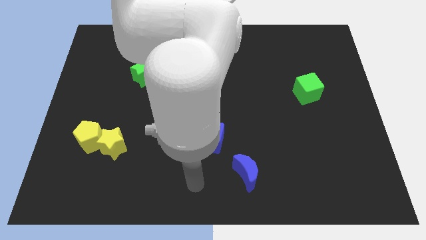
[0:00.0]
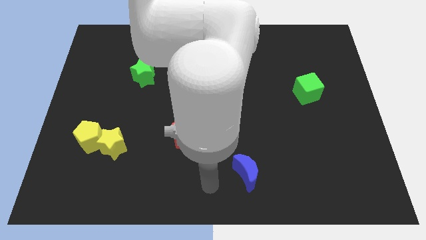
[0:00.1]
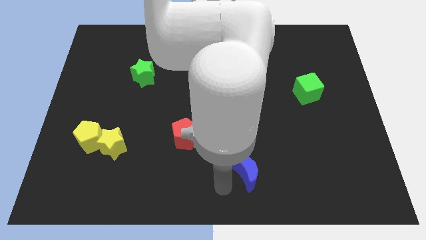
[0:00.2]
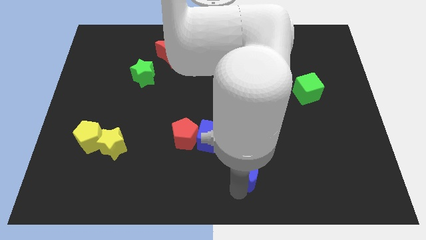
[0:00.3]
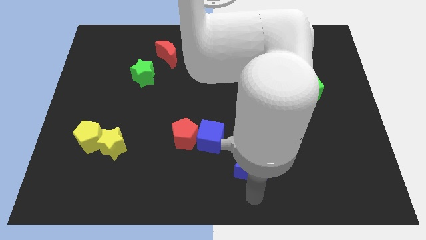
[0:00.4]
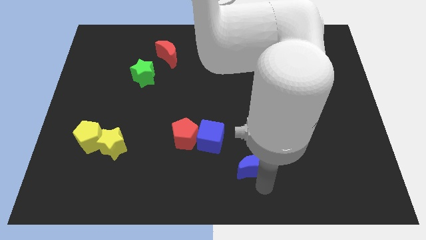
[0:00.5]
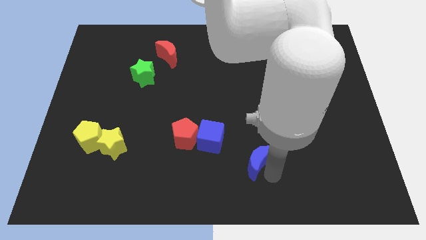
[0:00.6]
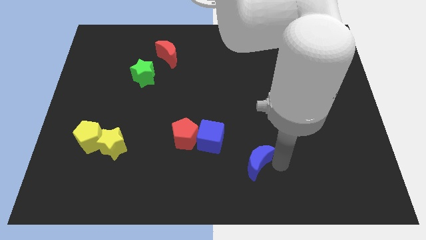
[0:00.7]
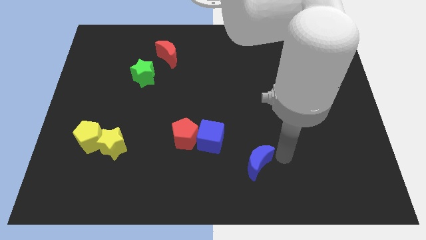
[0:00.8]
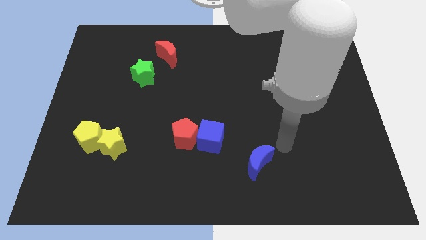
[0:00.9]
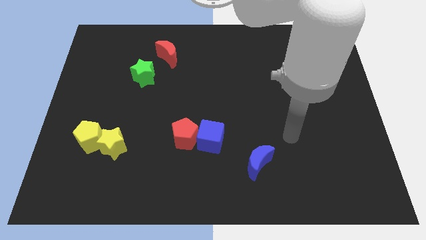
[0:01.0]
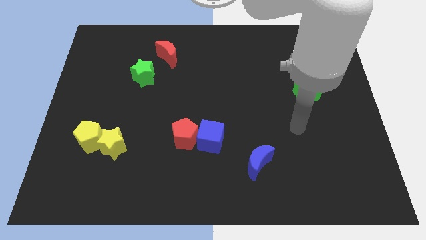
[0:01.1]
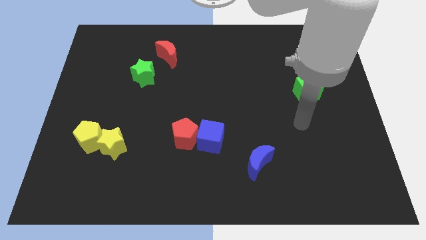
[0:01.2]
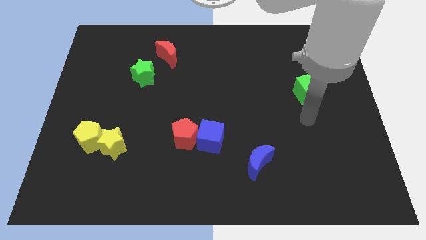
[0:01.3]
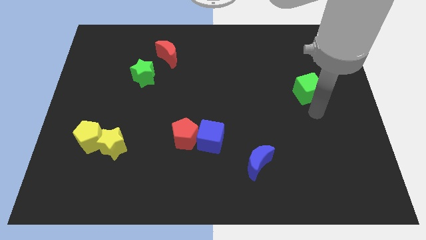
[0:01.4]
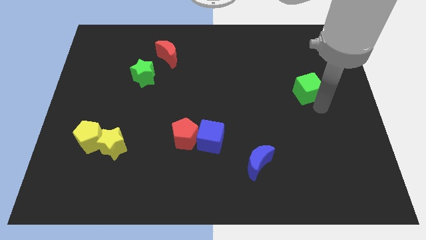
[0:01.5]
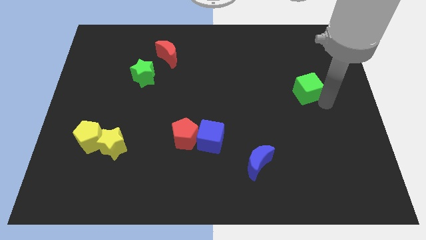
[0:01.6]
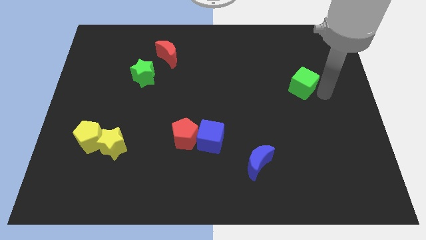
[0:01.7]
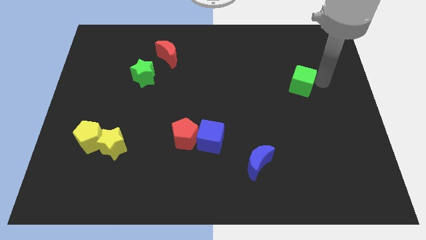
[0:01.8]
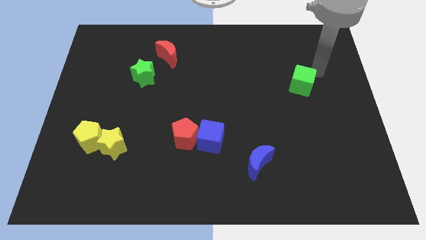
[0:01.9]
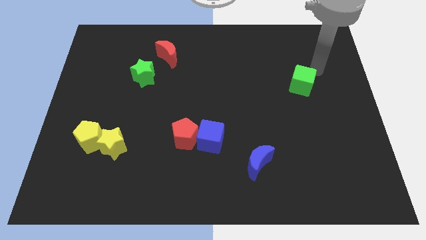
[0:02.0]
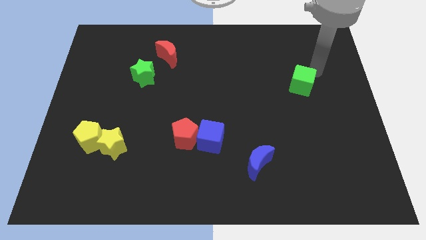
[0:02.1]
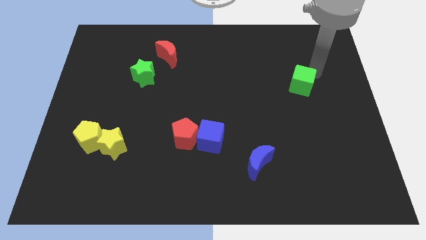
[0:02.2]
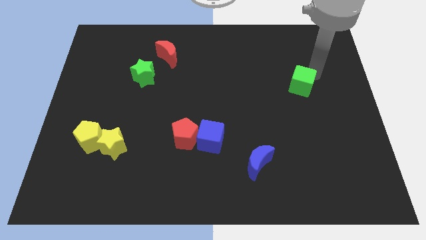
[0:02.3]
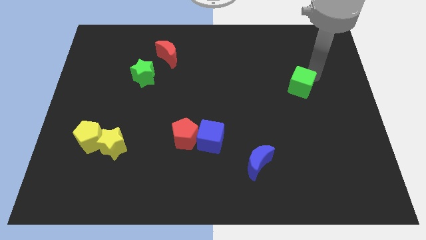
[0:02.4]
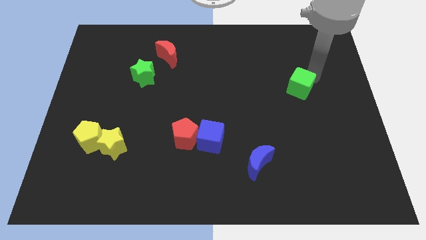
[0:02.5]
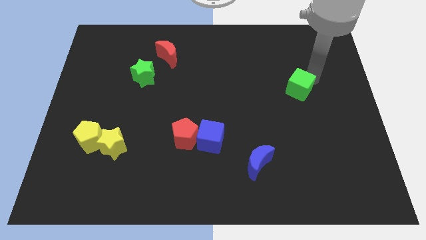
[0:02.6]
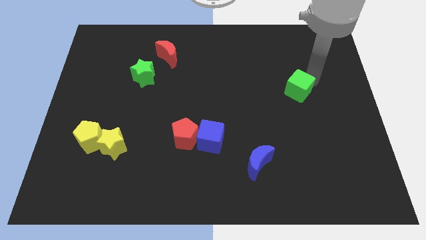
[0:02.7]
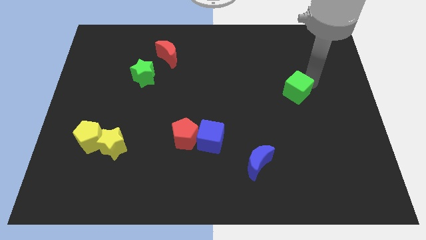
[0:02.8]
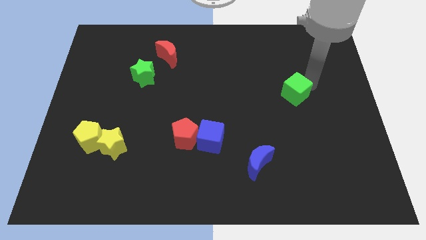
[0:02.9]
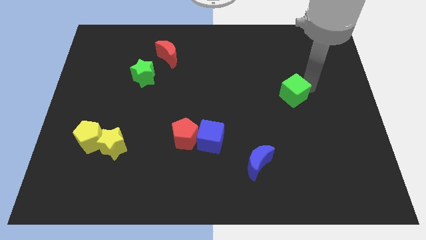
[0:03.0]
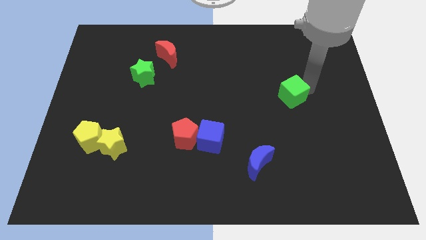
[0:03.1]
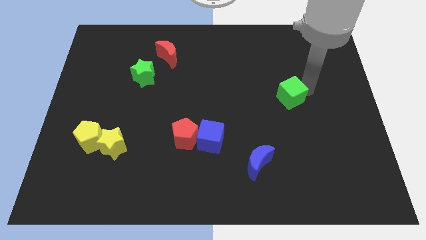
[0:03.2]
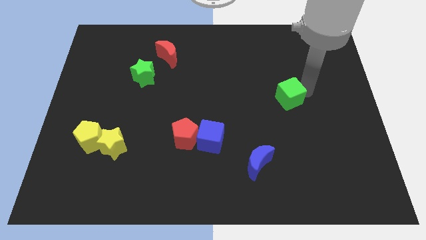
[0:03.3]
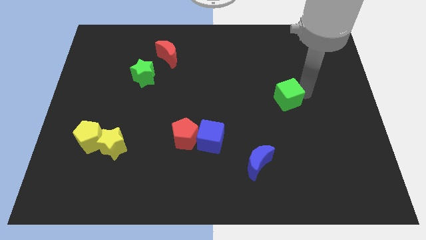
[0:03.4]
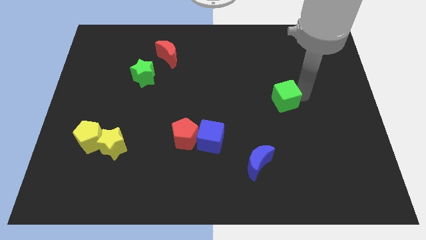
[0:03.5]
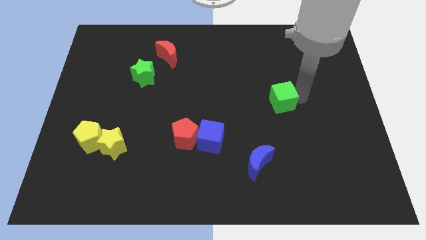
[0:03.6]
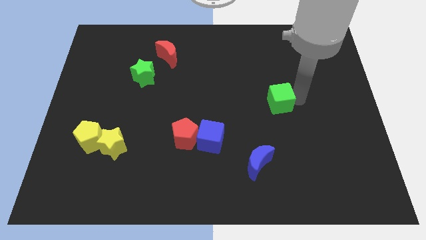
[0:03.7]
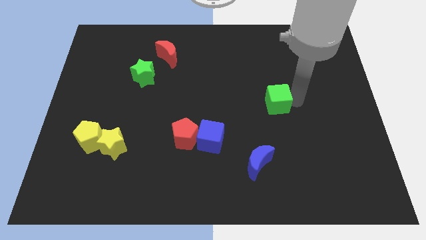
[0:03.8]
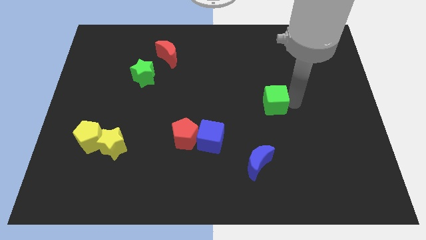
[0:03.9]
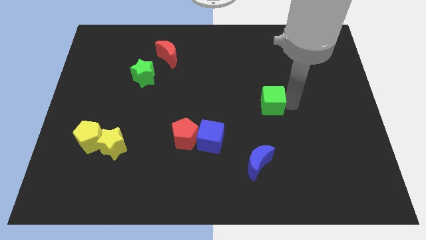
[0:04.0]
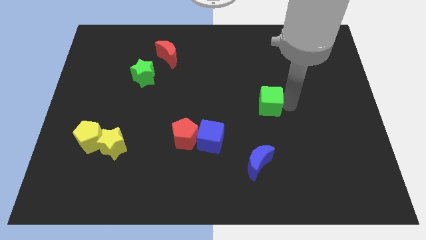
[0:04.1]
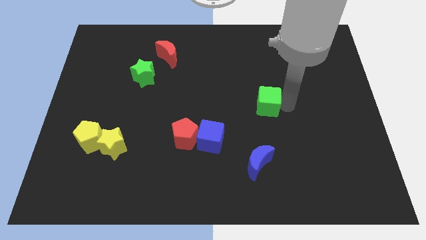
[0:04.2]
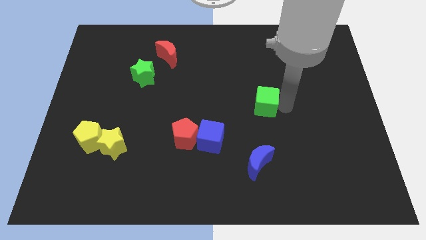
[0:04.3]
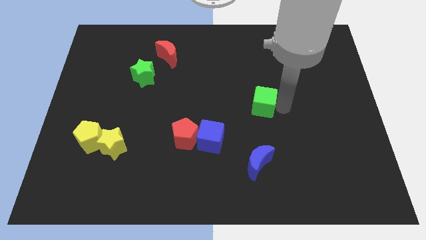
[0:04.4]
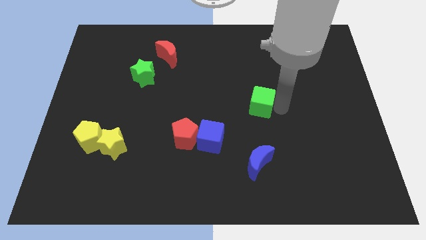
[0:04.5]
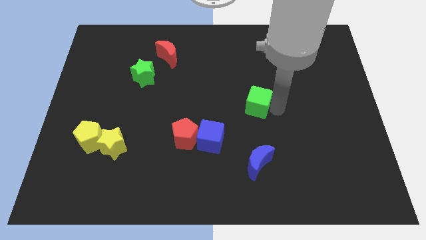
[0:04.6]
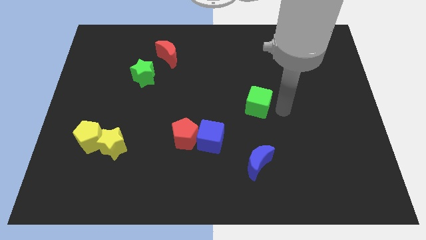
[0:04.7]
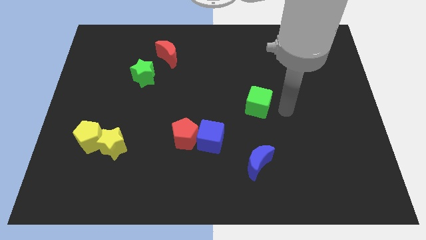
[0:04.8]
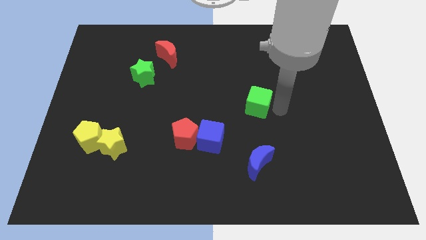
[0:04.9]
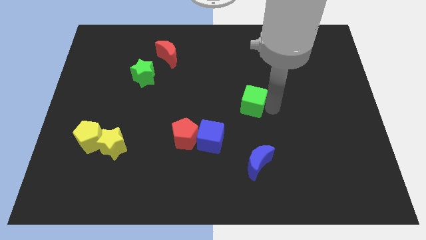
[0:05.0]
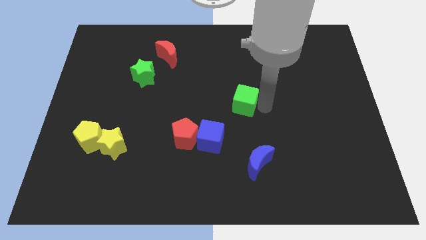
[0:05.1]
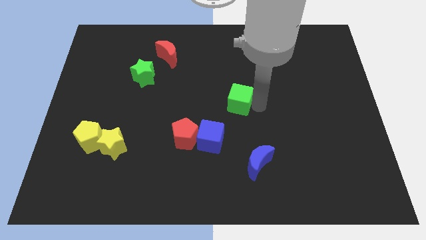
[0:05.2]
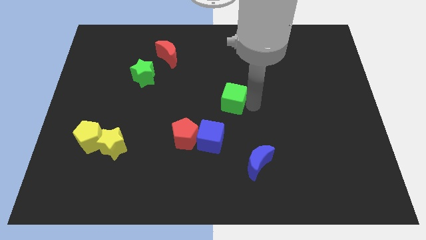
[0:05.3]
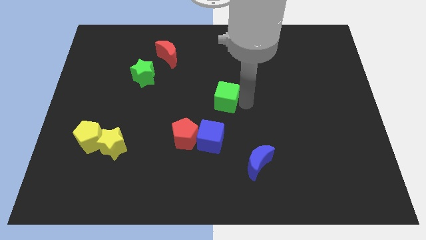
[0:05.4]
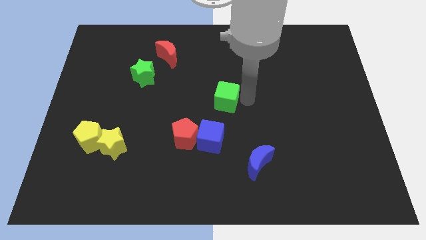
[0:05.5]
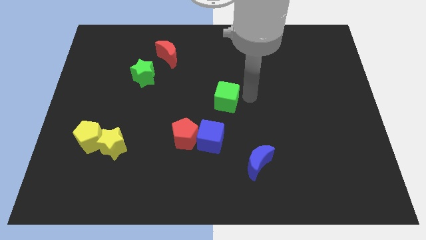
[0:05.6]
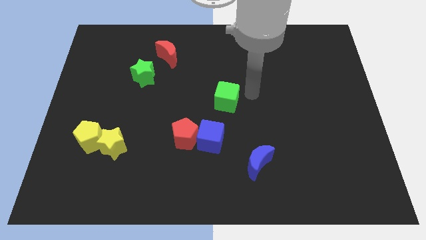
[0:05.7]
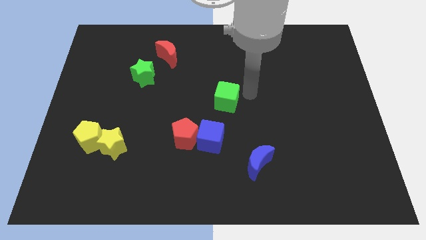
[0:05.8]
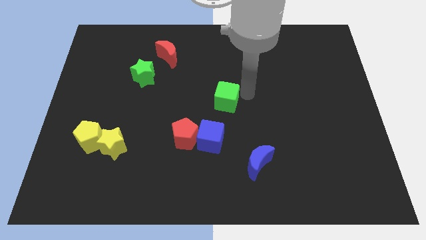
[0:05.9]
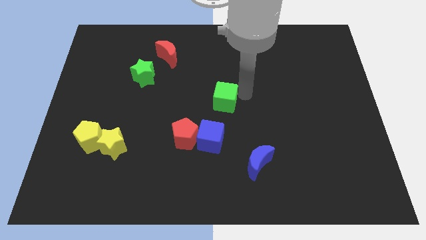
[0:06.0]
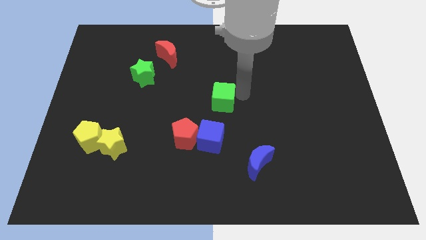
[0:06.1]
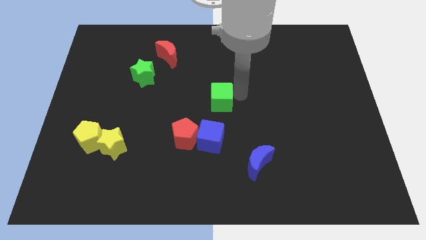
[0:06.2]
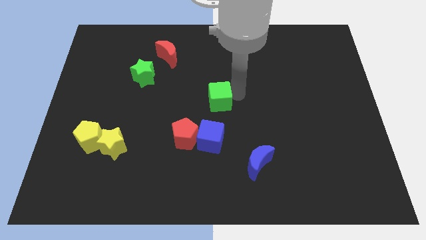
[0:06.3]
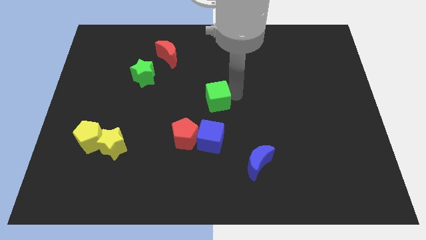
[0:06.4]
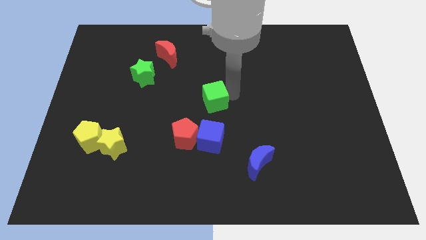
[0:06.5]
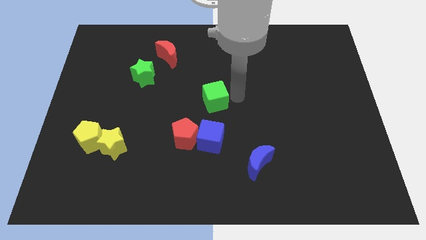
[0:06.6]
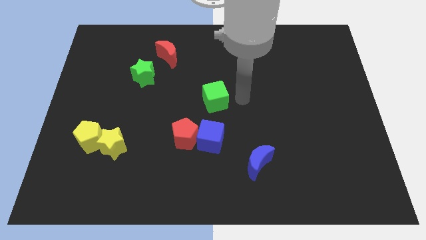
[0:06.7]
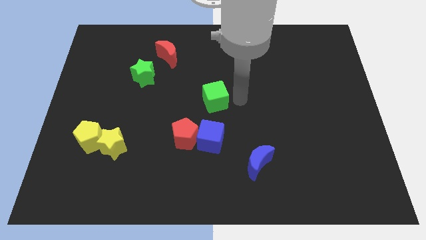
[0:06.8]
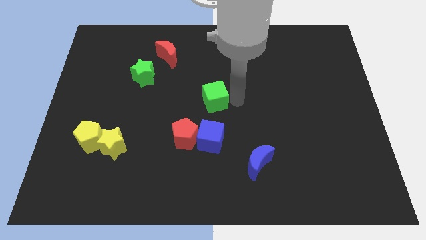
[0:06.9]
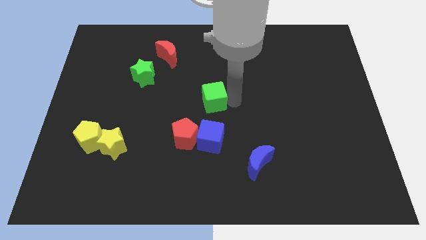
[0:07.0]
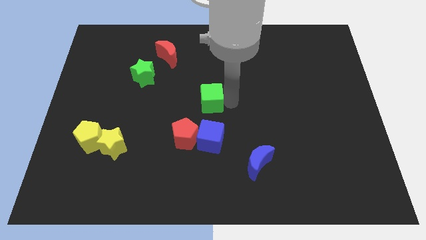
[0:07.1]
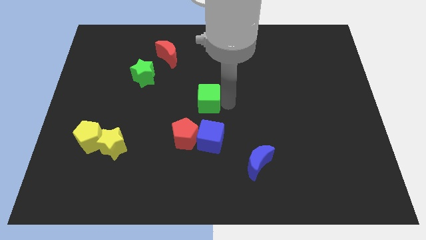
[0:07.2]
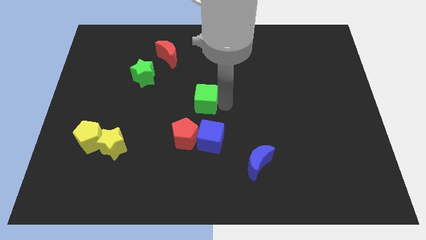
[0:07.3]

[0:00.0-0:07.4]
move the green cube to the top of the red pentagon

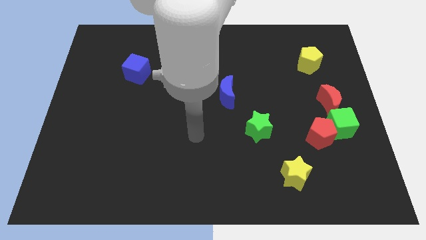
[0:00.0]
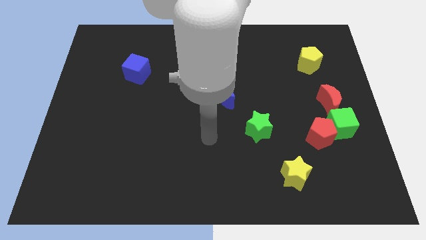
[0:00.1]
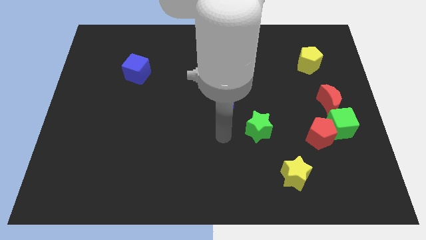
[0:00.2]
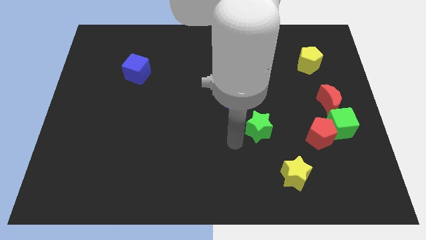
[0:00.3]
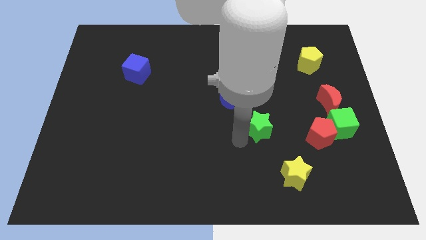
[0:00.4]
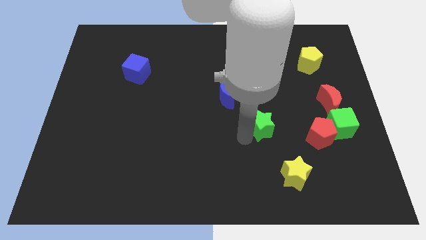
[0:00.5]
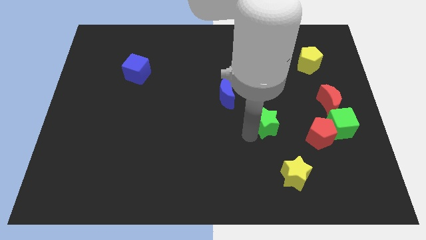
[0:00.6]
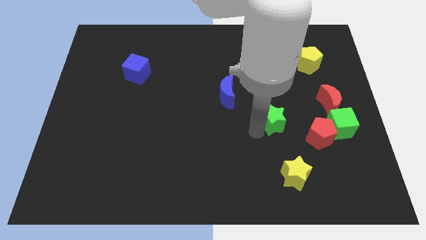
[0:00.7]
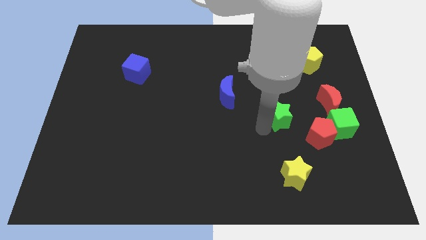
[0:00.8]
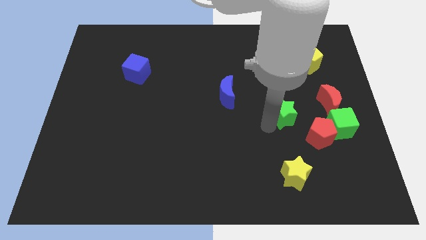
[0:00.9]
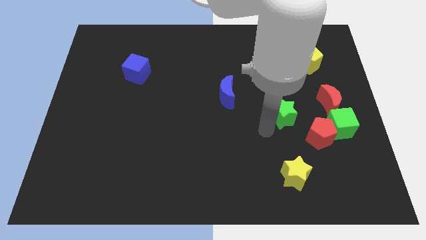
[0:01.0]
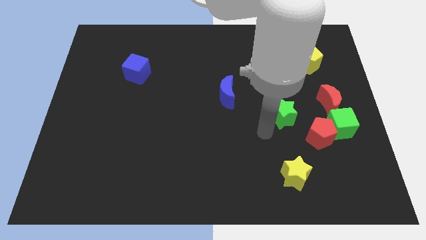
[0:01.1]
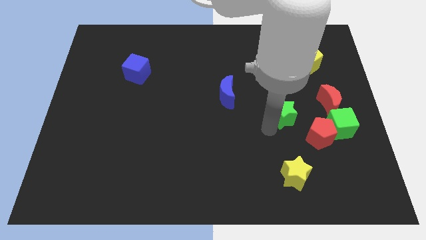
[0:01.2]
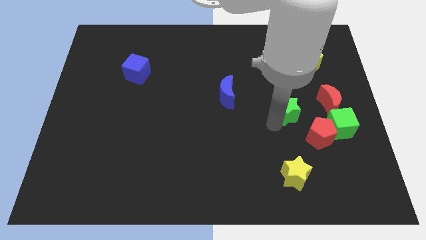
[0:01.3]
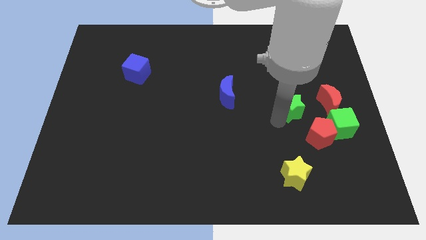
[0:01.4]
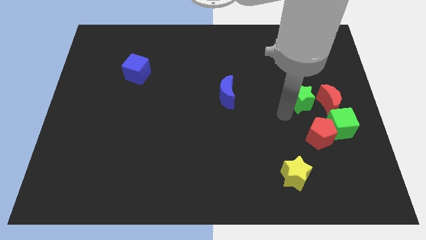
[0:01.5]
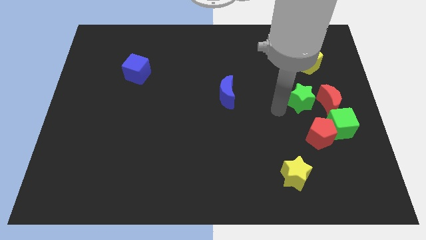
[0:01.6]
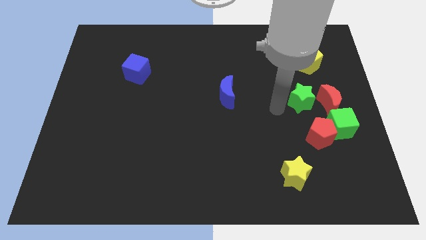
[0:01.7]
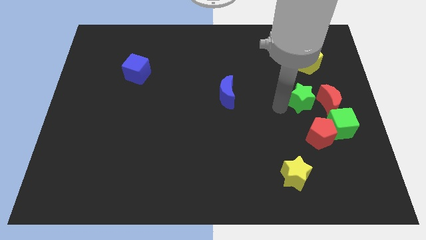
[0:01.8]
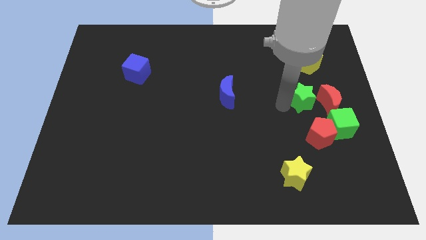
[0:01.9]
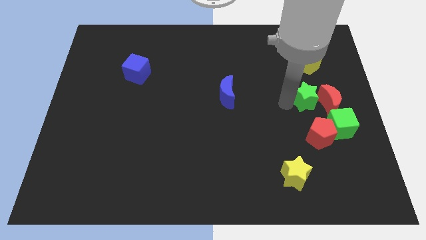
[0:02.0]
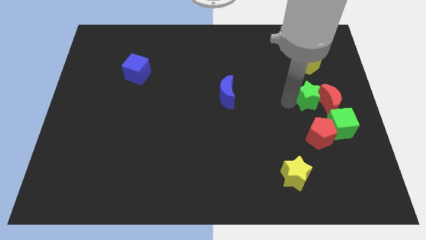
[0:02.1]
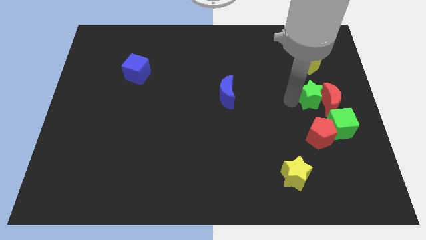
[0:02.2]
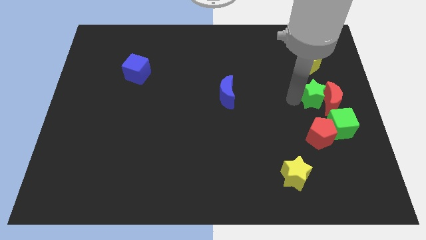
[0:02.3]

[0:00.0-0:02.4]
move the green star to the top of the green cube
